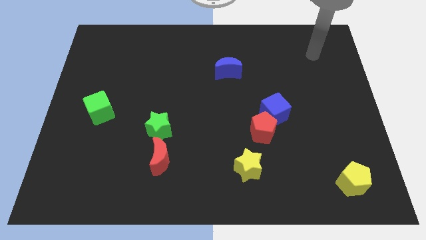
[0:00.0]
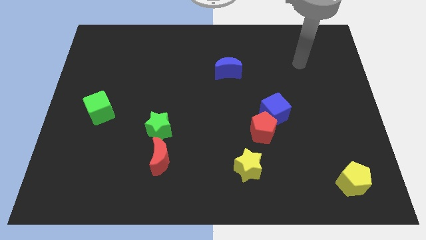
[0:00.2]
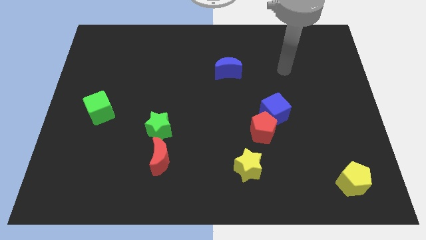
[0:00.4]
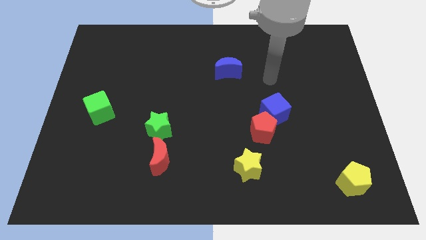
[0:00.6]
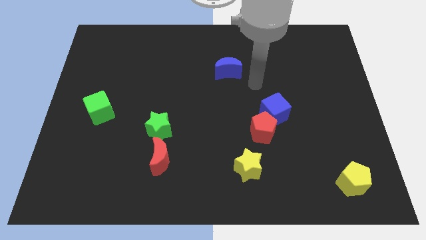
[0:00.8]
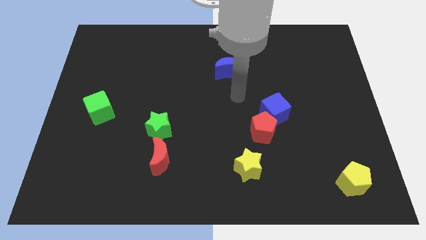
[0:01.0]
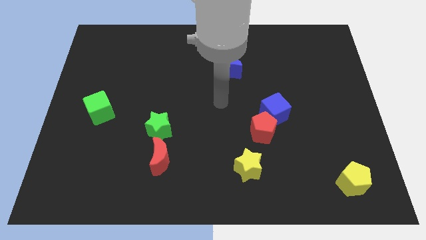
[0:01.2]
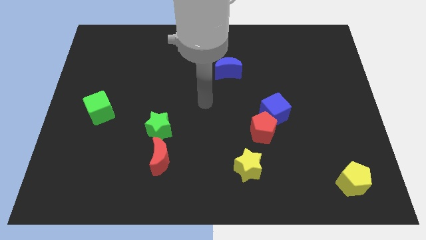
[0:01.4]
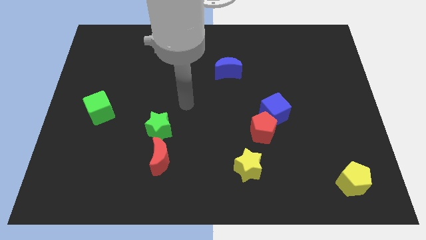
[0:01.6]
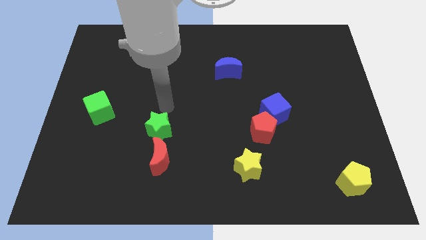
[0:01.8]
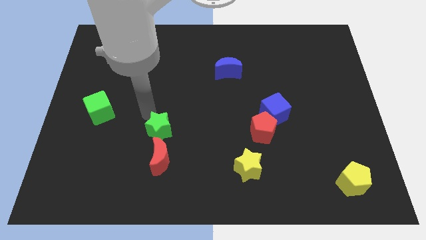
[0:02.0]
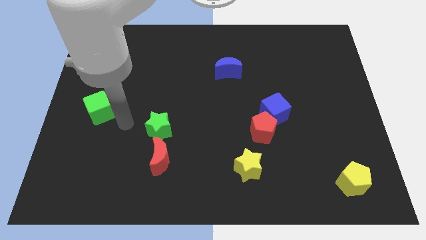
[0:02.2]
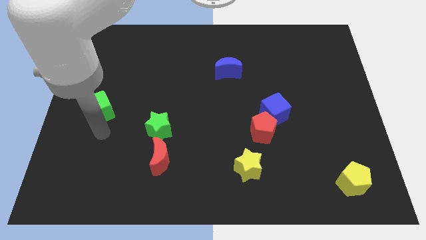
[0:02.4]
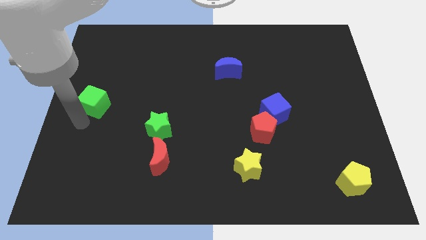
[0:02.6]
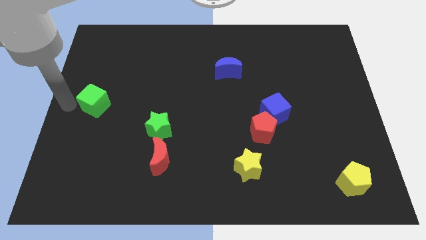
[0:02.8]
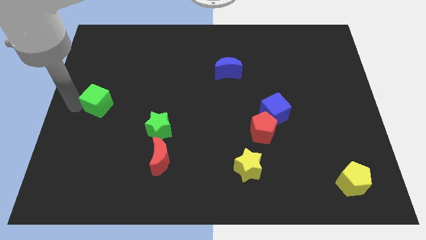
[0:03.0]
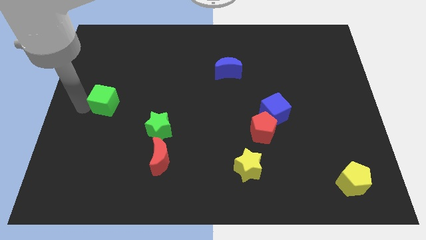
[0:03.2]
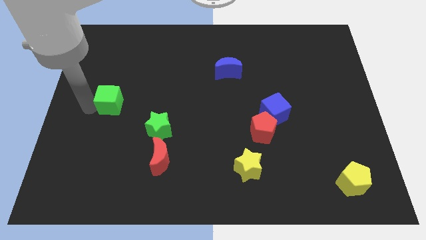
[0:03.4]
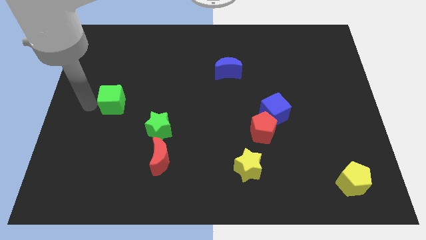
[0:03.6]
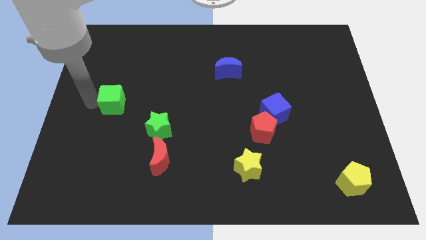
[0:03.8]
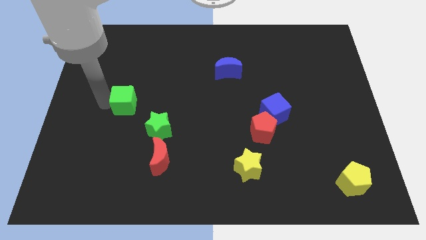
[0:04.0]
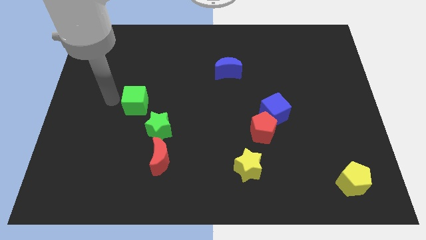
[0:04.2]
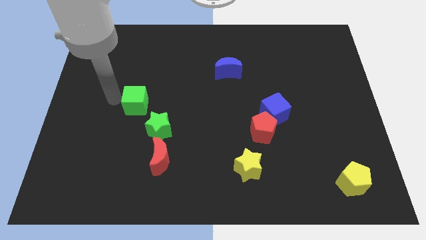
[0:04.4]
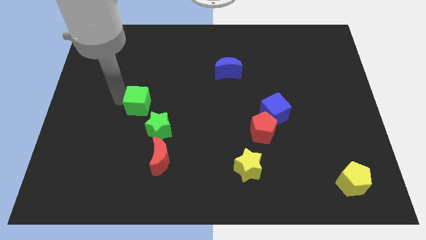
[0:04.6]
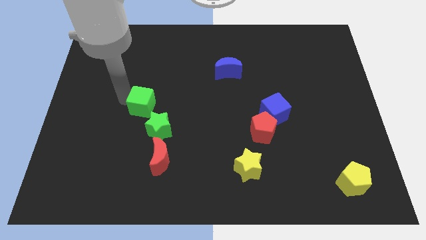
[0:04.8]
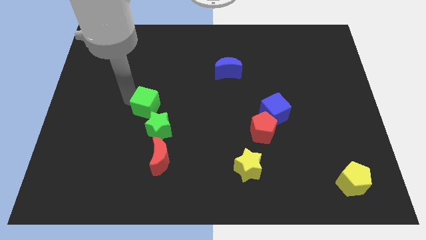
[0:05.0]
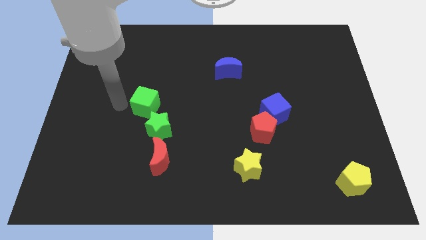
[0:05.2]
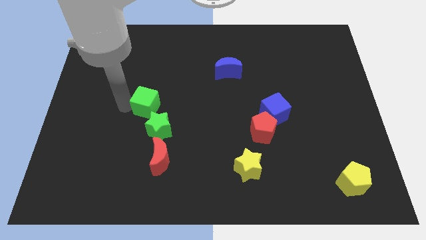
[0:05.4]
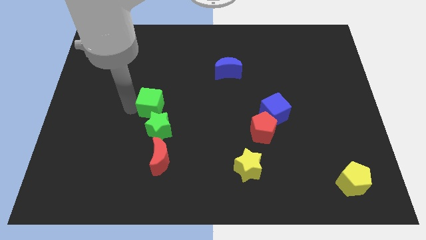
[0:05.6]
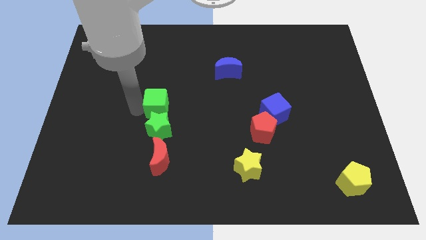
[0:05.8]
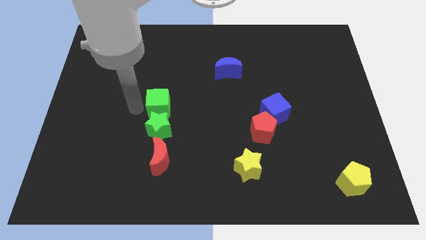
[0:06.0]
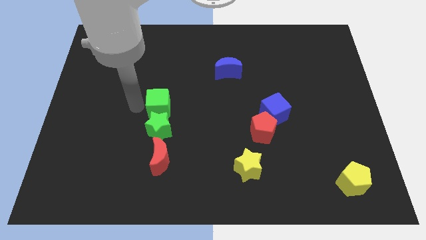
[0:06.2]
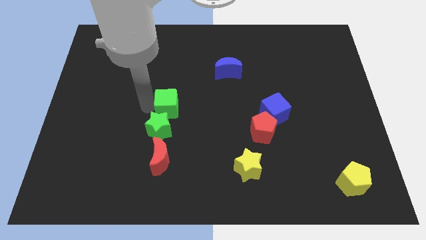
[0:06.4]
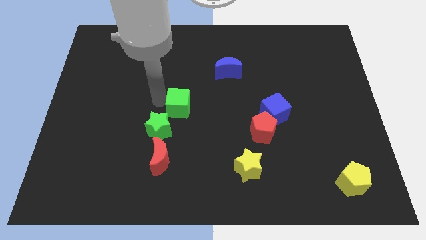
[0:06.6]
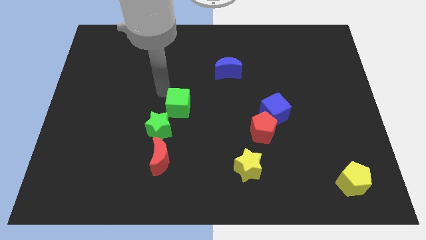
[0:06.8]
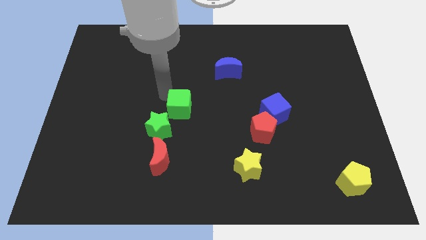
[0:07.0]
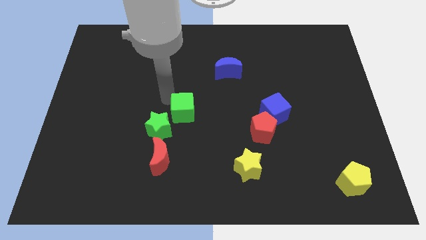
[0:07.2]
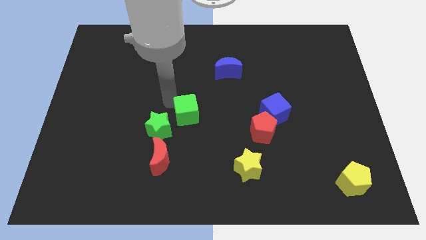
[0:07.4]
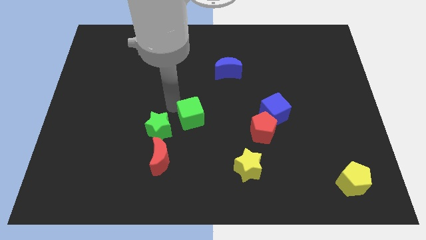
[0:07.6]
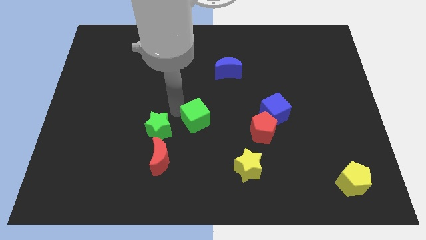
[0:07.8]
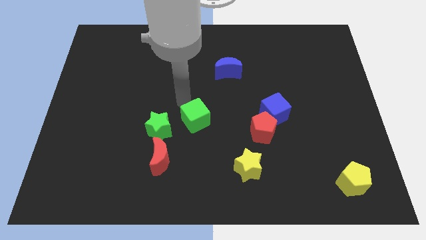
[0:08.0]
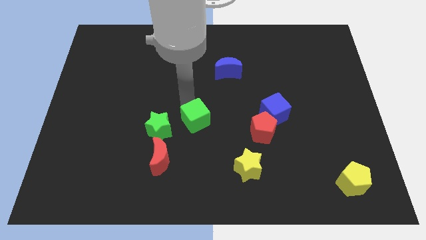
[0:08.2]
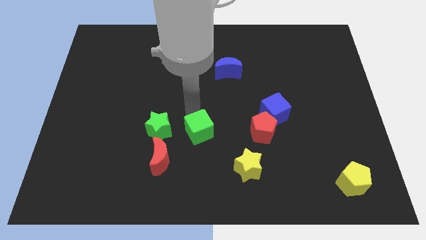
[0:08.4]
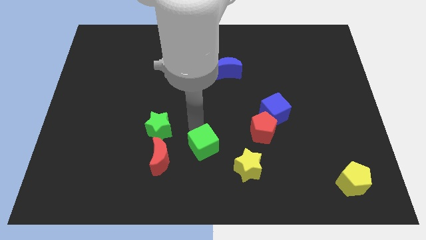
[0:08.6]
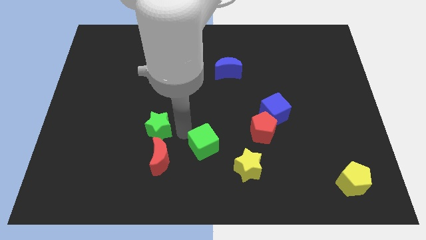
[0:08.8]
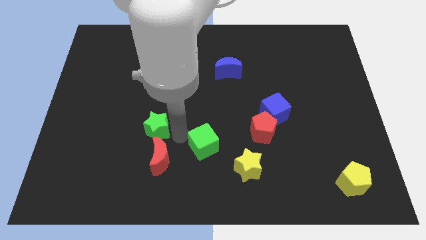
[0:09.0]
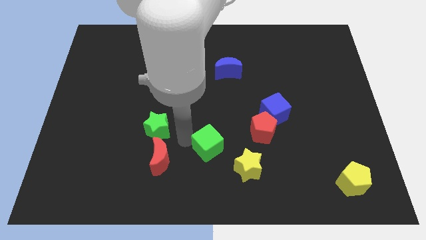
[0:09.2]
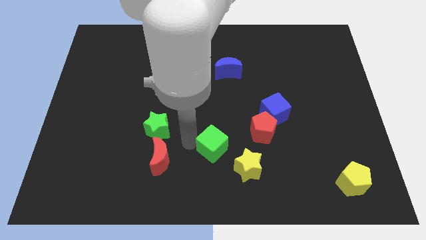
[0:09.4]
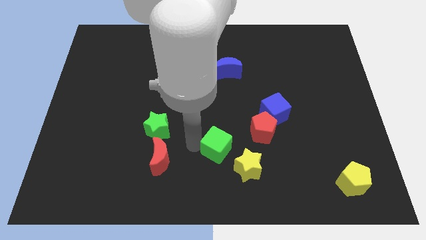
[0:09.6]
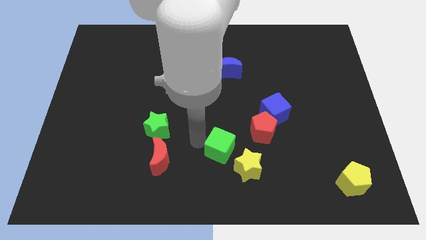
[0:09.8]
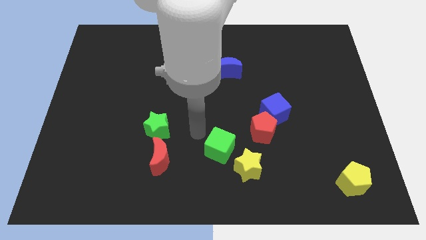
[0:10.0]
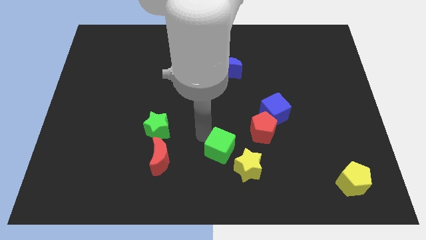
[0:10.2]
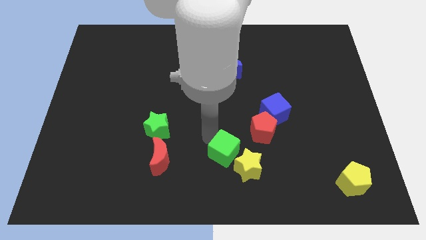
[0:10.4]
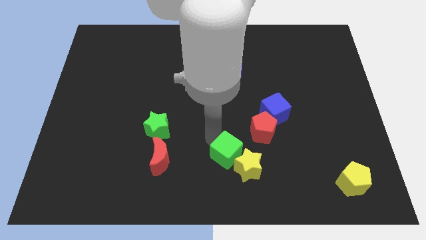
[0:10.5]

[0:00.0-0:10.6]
slide the green cube close to the yellow star

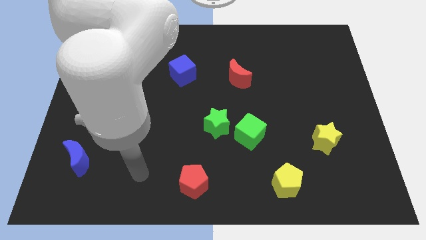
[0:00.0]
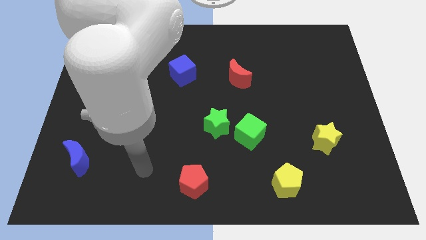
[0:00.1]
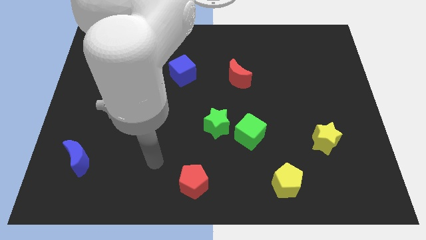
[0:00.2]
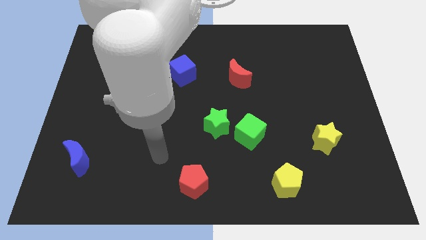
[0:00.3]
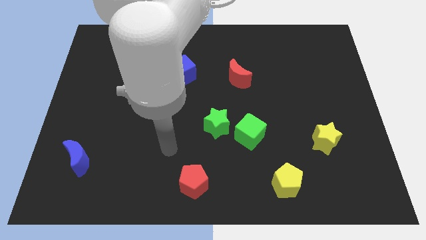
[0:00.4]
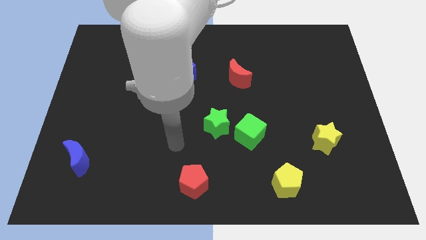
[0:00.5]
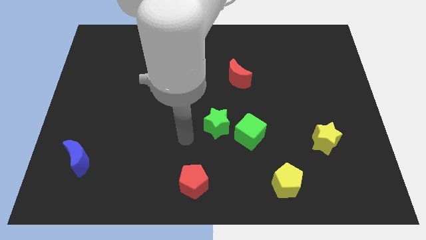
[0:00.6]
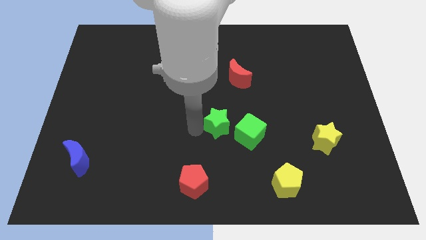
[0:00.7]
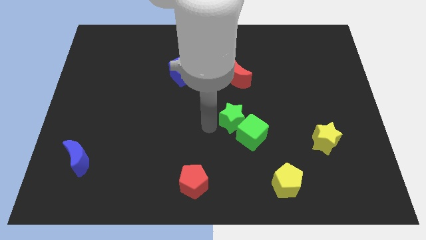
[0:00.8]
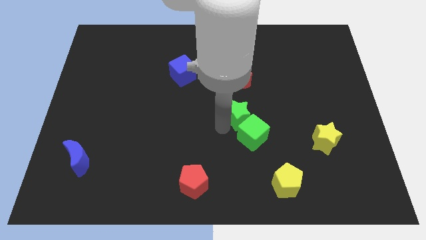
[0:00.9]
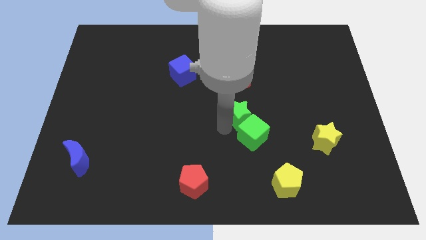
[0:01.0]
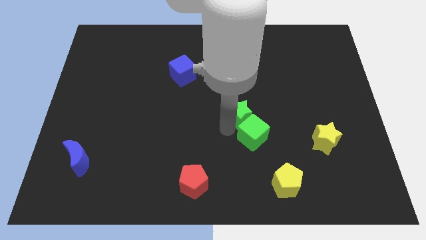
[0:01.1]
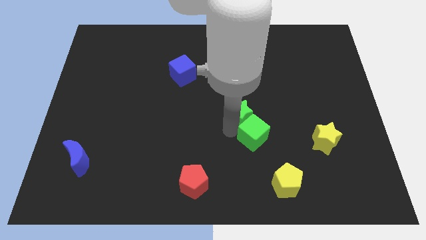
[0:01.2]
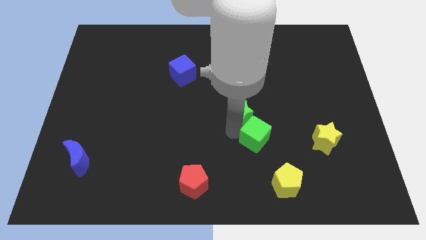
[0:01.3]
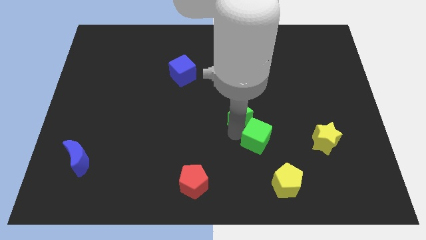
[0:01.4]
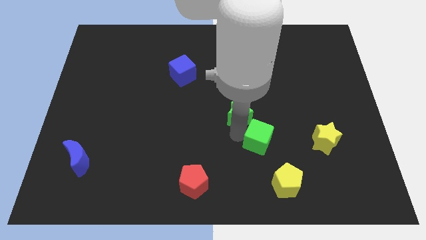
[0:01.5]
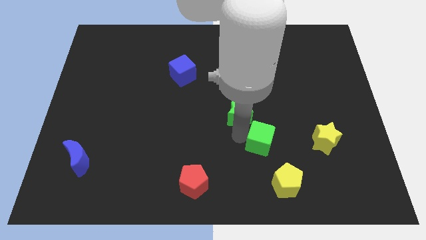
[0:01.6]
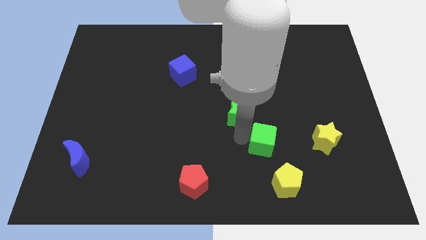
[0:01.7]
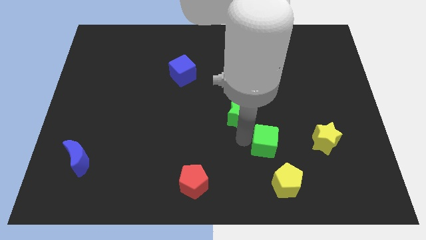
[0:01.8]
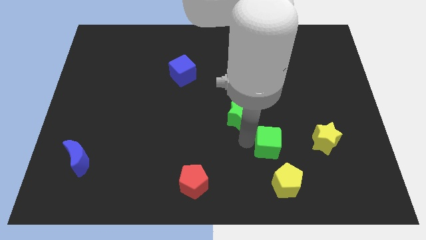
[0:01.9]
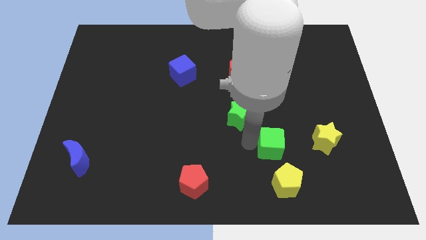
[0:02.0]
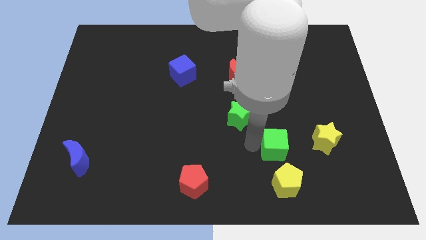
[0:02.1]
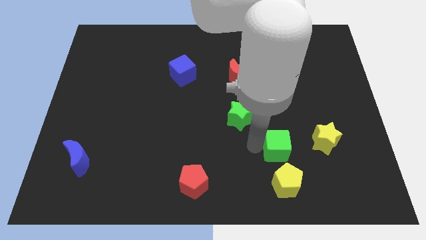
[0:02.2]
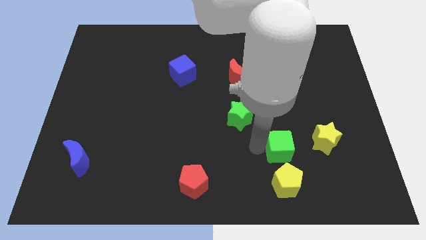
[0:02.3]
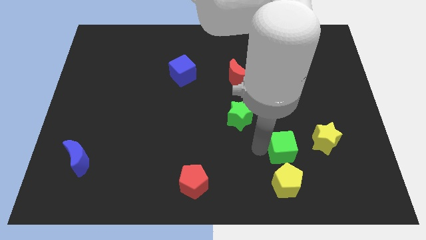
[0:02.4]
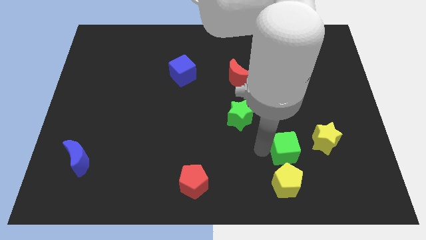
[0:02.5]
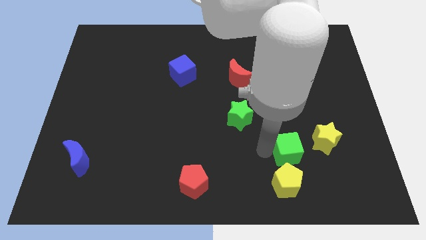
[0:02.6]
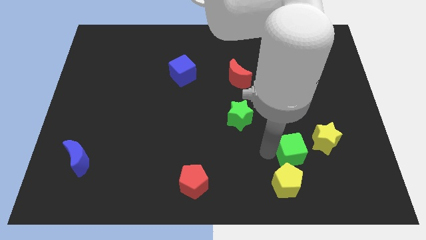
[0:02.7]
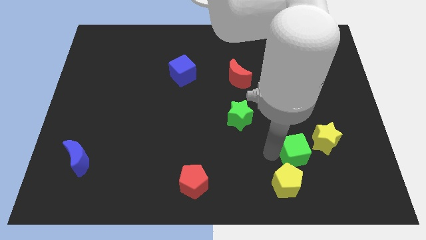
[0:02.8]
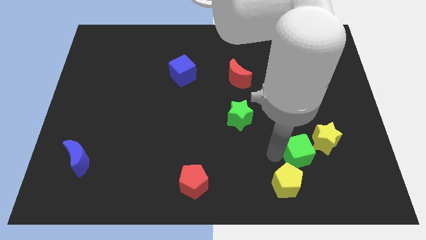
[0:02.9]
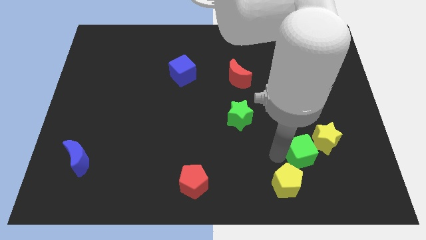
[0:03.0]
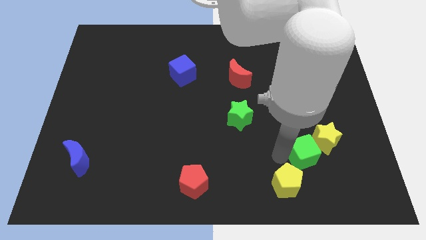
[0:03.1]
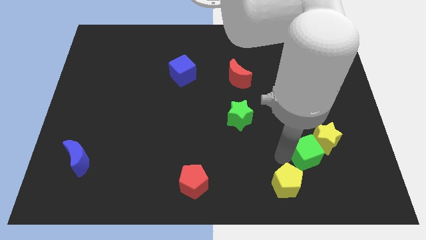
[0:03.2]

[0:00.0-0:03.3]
move the green cube next to the yellow star
